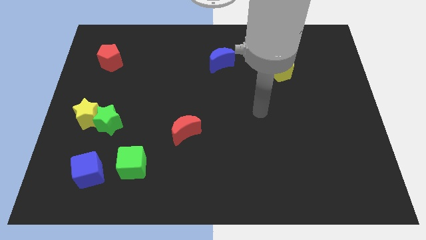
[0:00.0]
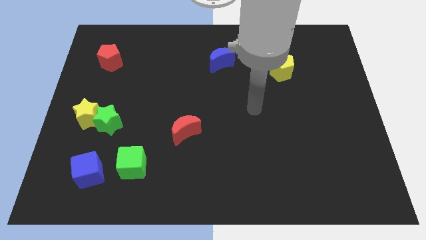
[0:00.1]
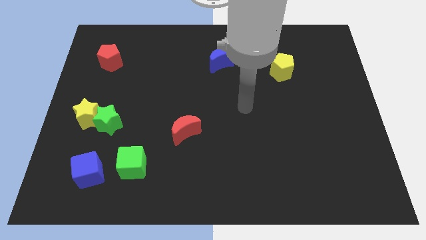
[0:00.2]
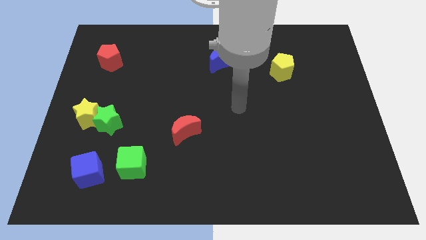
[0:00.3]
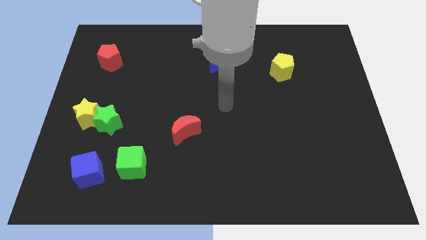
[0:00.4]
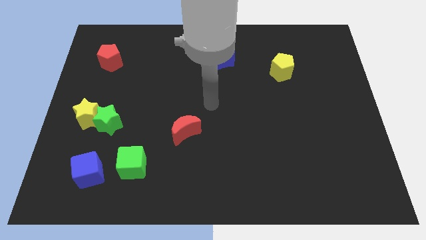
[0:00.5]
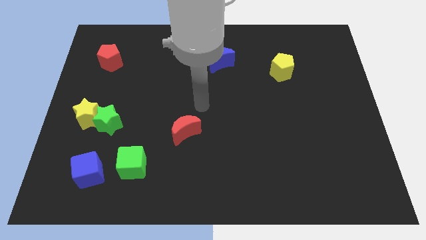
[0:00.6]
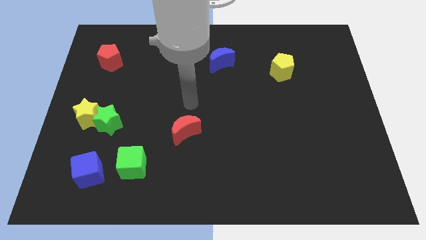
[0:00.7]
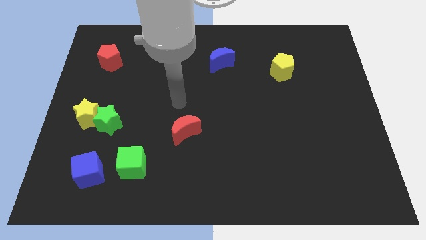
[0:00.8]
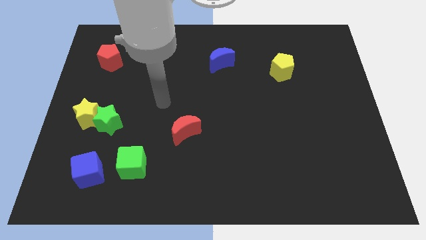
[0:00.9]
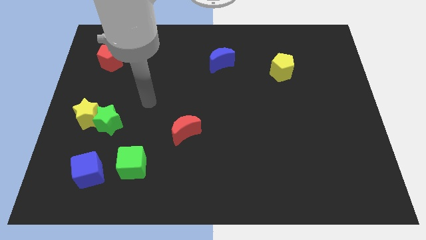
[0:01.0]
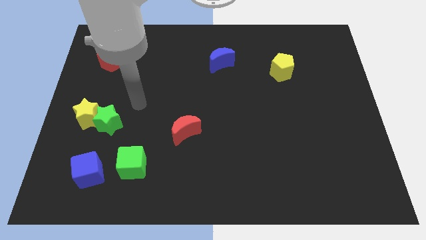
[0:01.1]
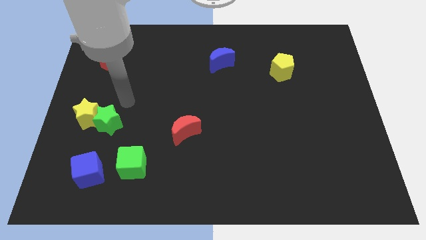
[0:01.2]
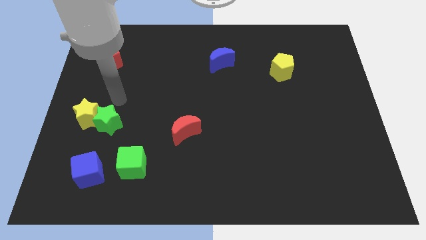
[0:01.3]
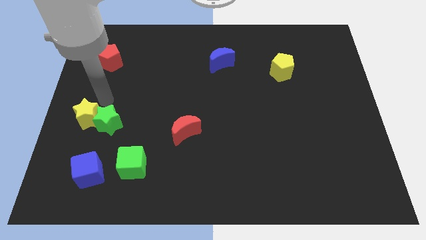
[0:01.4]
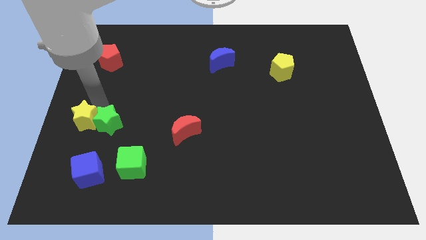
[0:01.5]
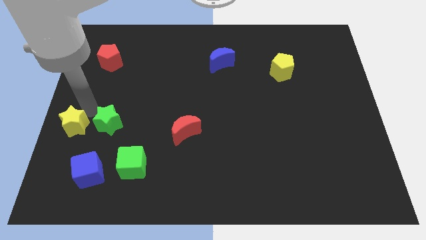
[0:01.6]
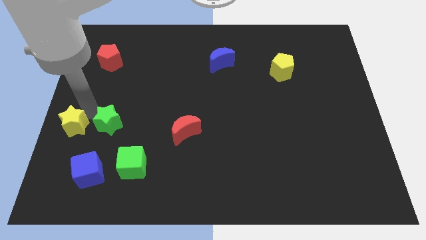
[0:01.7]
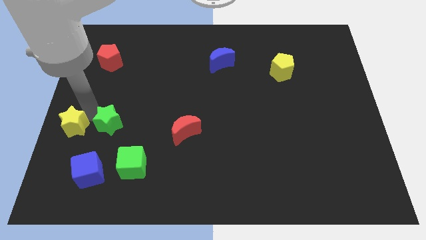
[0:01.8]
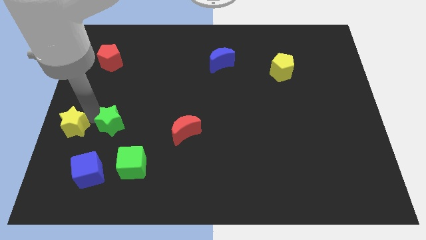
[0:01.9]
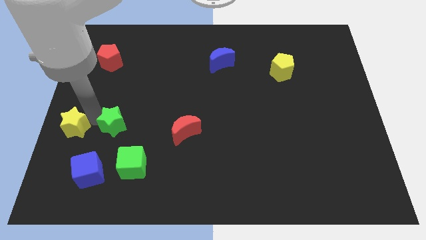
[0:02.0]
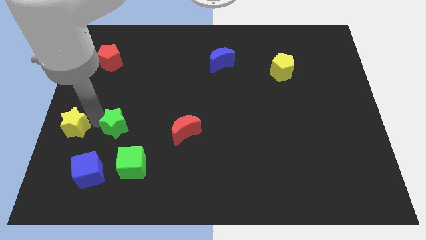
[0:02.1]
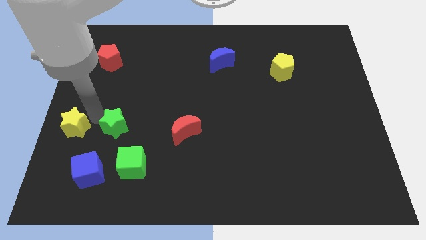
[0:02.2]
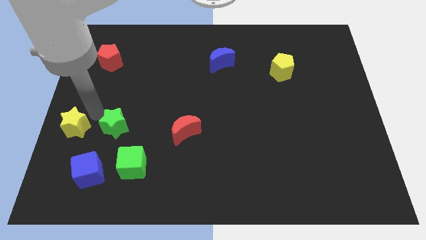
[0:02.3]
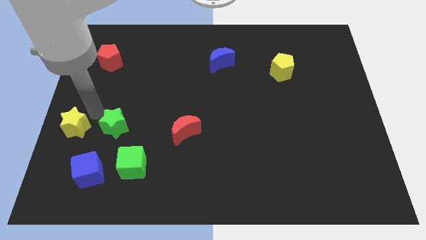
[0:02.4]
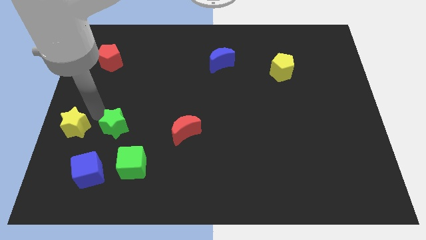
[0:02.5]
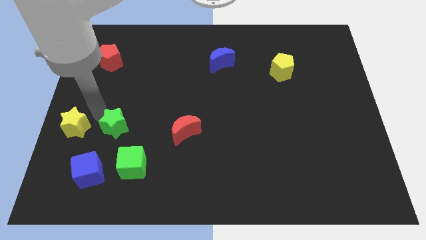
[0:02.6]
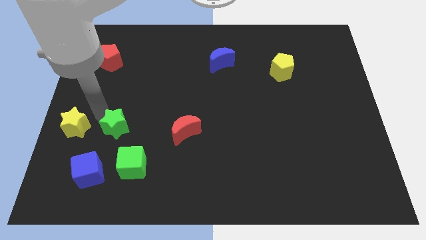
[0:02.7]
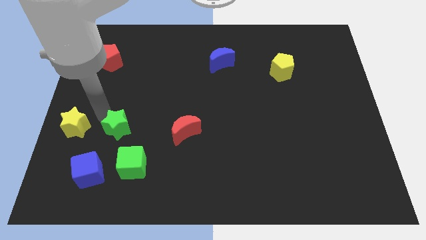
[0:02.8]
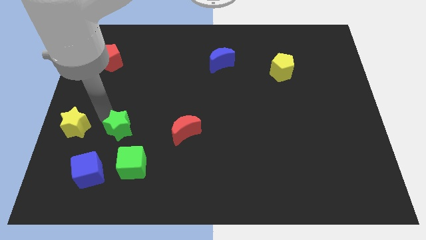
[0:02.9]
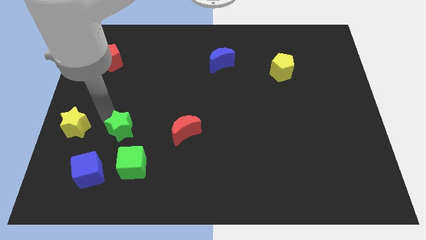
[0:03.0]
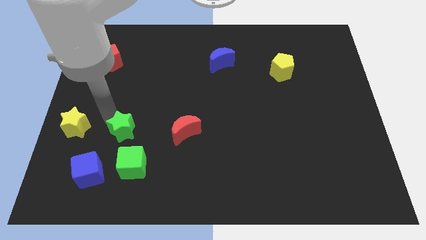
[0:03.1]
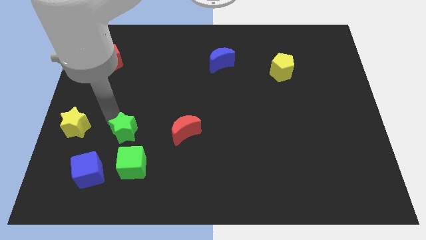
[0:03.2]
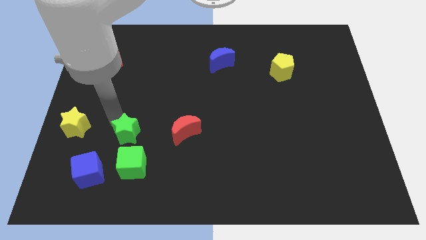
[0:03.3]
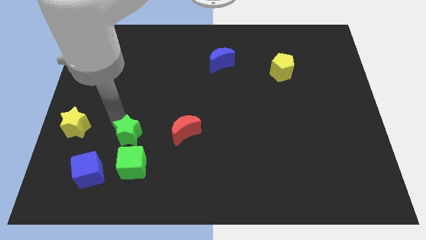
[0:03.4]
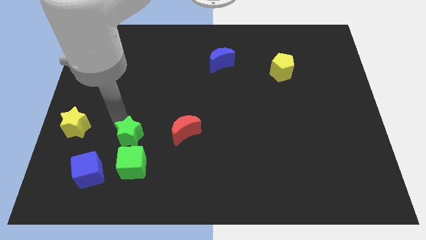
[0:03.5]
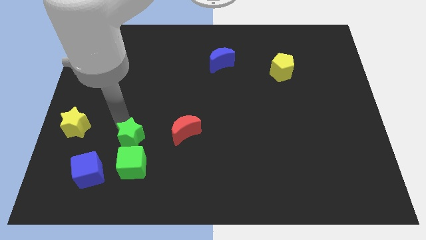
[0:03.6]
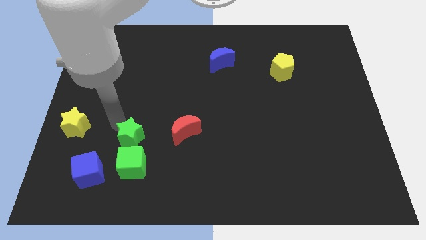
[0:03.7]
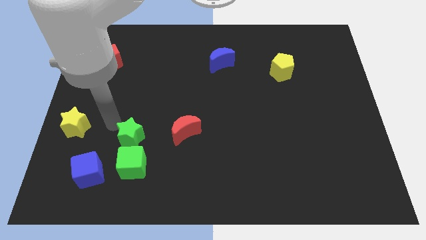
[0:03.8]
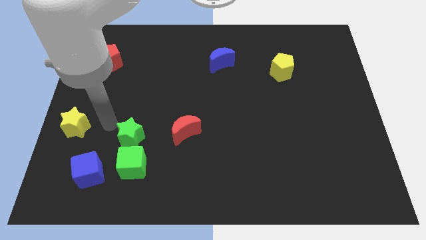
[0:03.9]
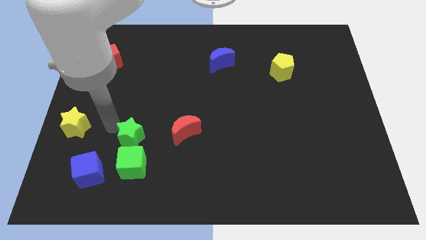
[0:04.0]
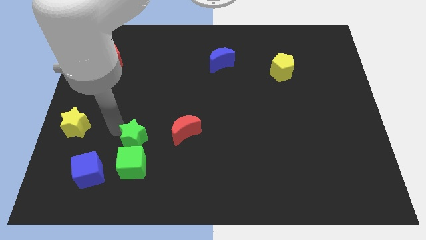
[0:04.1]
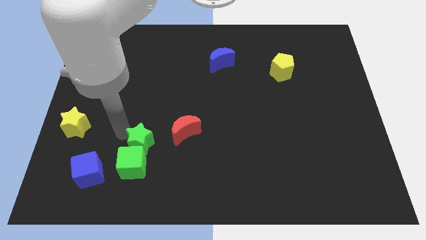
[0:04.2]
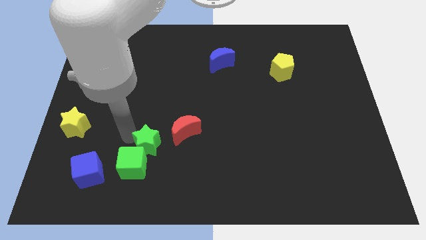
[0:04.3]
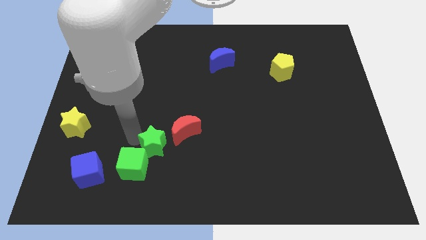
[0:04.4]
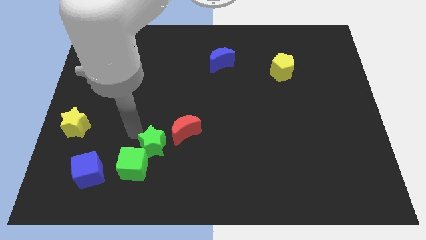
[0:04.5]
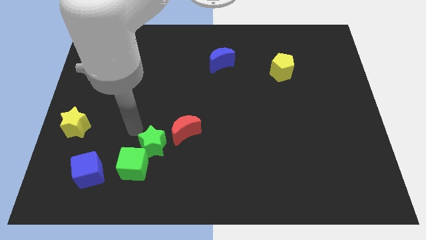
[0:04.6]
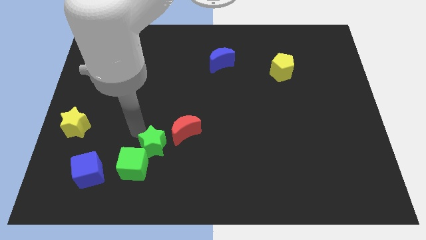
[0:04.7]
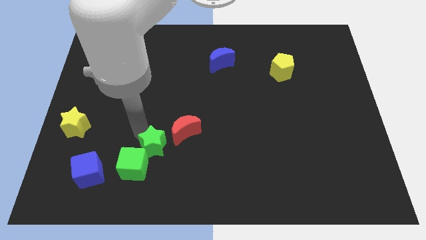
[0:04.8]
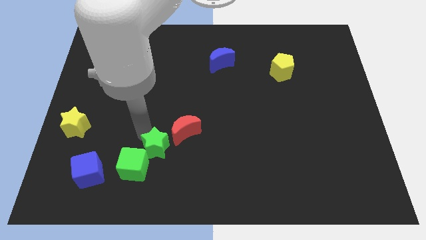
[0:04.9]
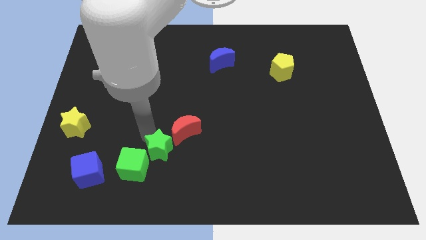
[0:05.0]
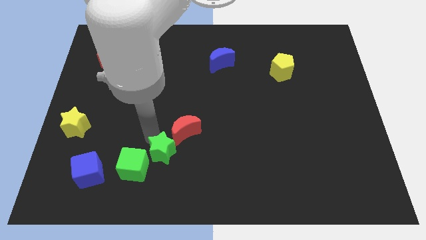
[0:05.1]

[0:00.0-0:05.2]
slide the green star below the red moon

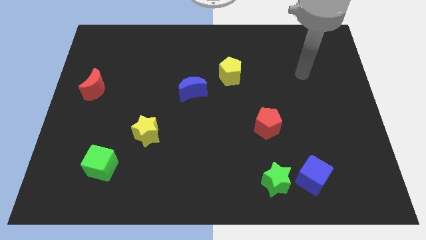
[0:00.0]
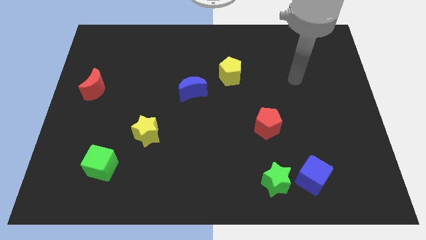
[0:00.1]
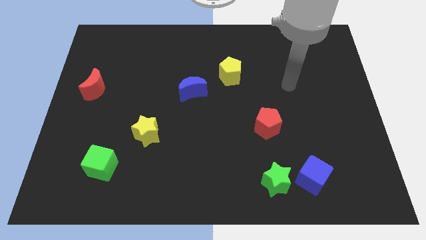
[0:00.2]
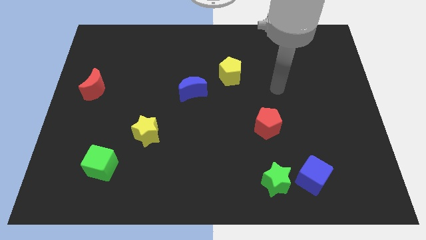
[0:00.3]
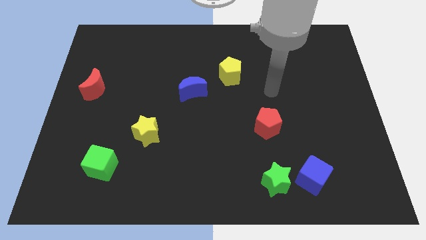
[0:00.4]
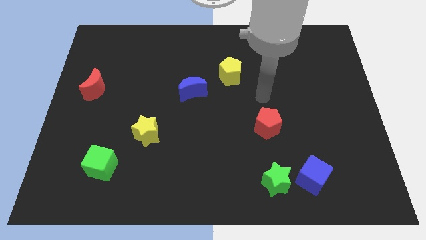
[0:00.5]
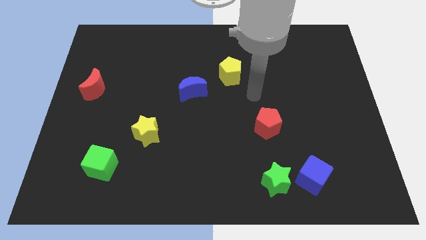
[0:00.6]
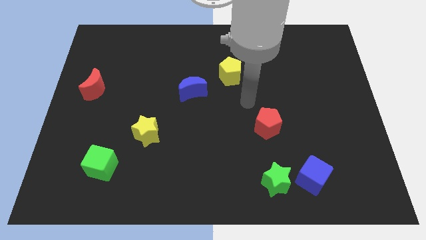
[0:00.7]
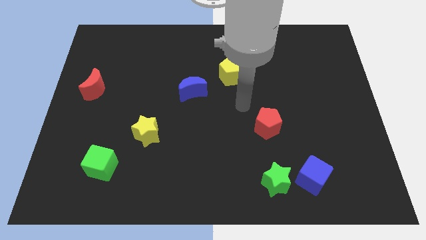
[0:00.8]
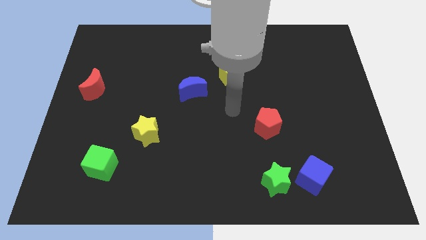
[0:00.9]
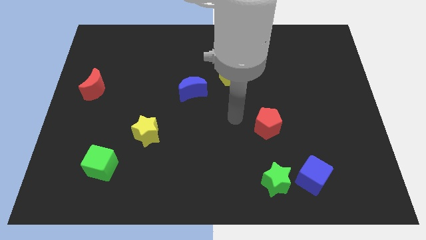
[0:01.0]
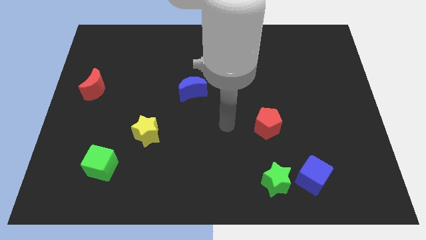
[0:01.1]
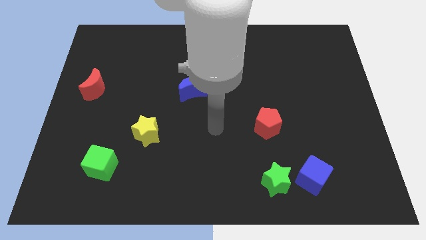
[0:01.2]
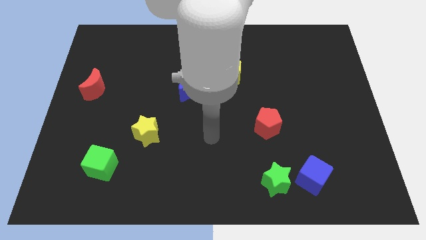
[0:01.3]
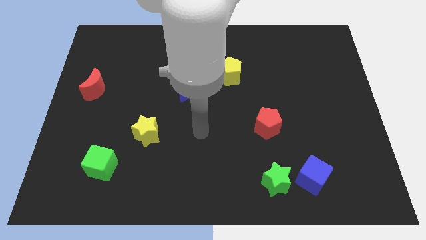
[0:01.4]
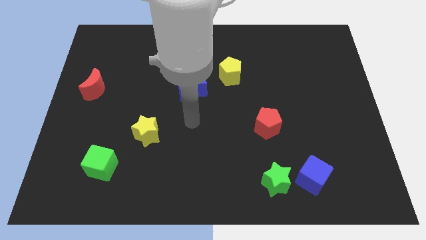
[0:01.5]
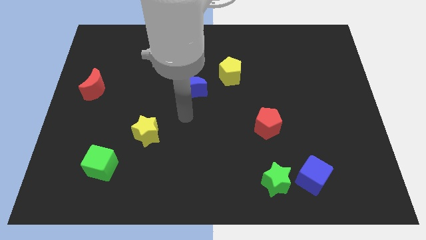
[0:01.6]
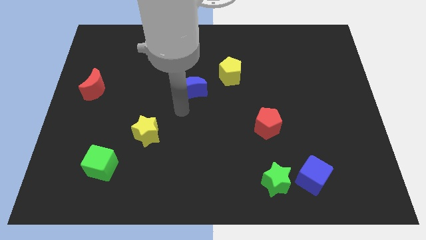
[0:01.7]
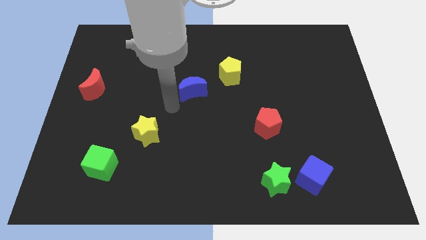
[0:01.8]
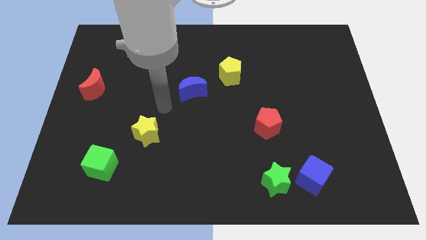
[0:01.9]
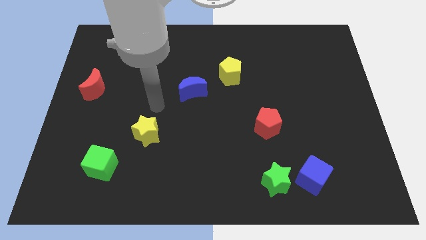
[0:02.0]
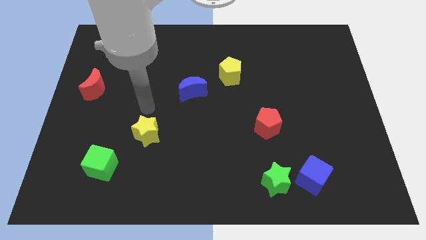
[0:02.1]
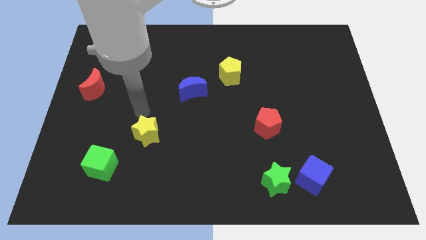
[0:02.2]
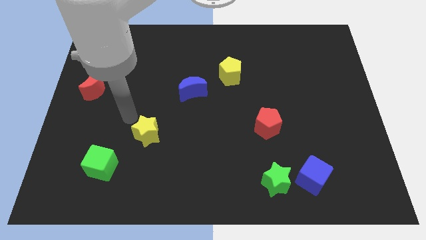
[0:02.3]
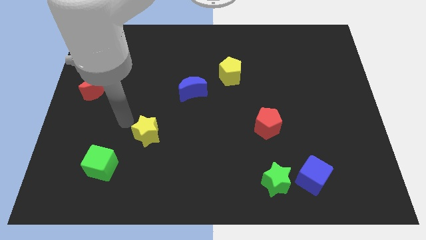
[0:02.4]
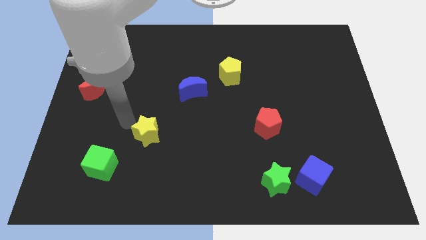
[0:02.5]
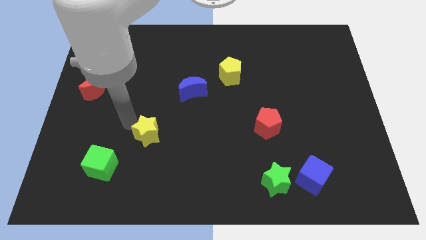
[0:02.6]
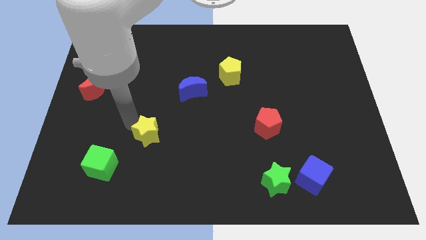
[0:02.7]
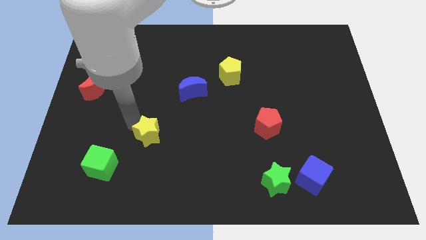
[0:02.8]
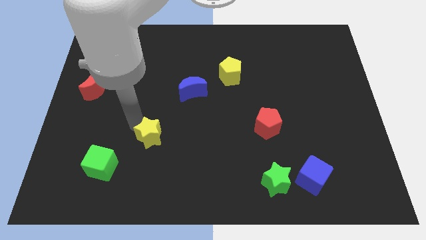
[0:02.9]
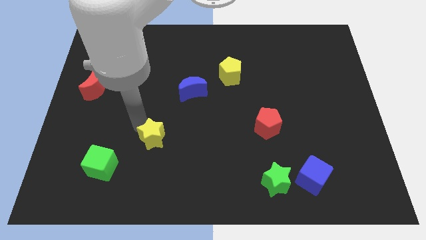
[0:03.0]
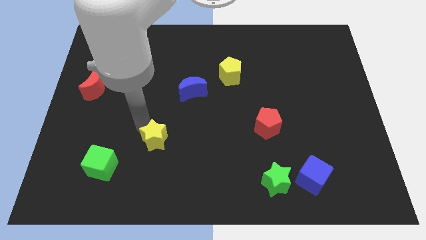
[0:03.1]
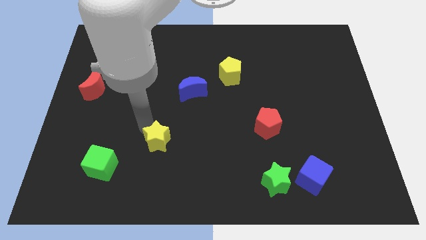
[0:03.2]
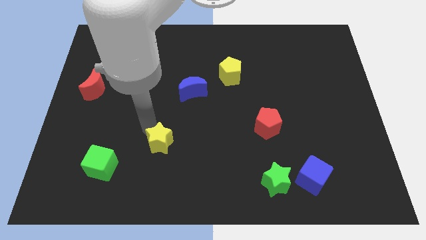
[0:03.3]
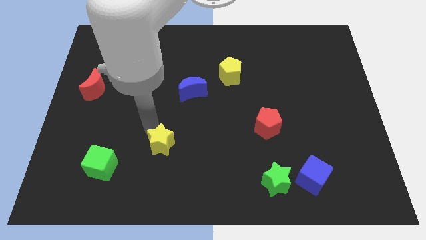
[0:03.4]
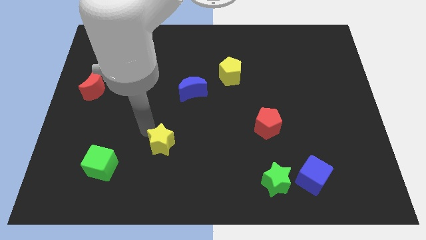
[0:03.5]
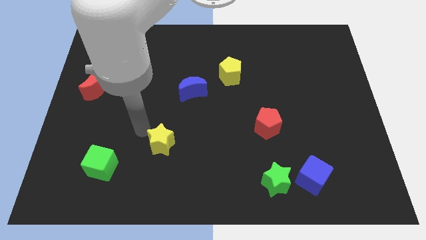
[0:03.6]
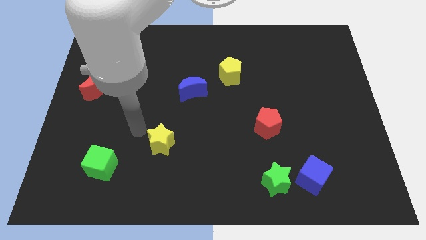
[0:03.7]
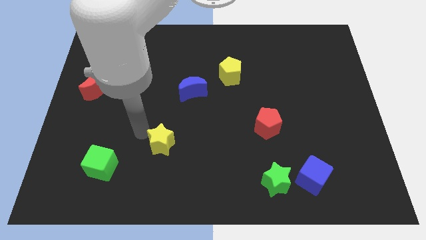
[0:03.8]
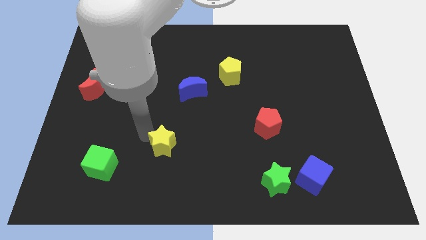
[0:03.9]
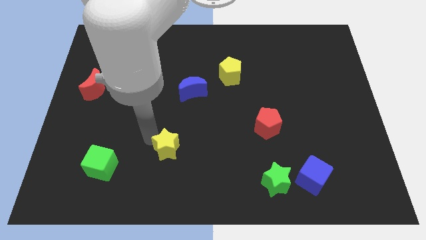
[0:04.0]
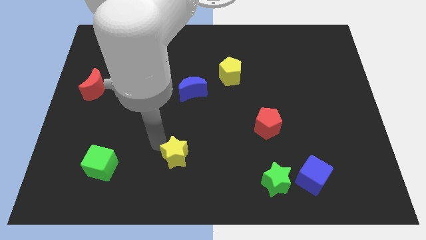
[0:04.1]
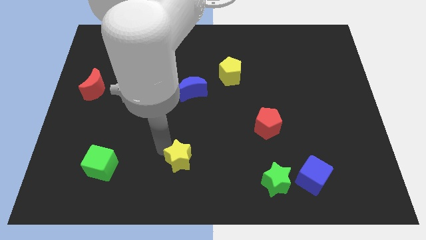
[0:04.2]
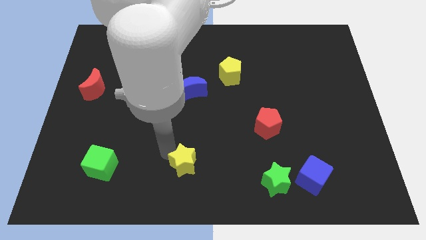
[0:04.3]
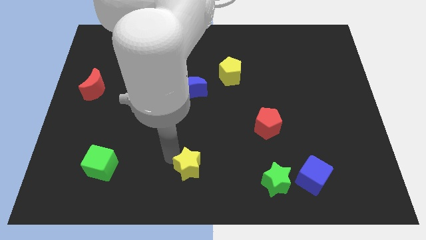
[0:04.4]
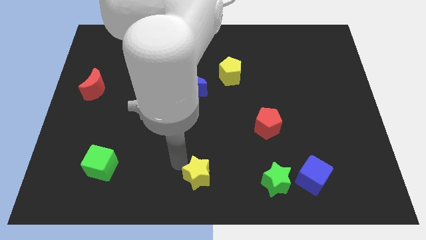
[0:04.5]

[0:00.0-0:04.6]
put the yellow star to the left of the green star
